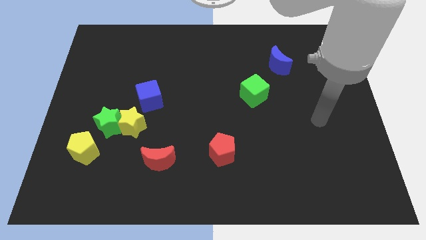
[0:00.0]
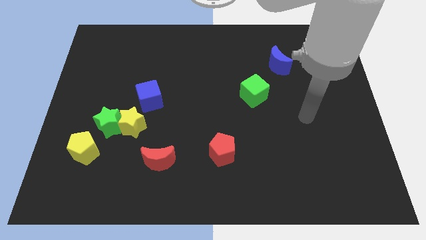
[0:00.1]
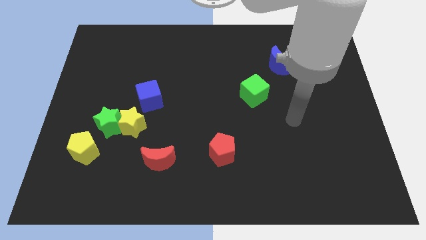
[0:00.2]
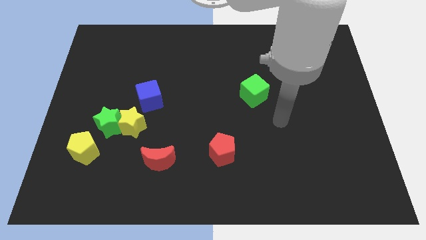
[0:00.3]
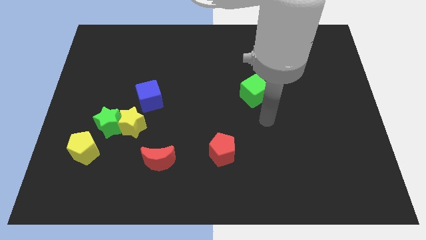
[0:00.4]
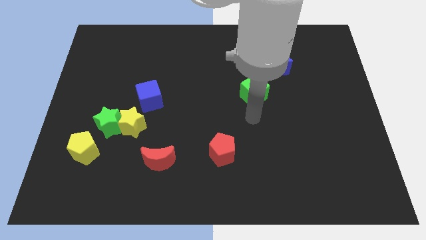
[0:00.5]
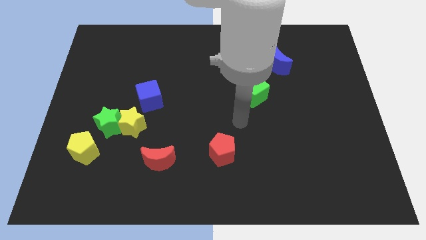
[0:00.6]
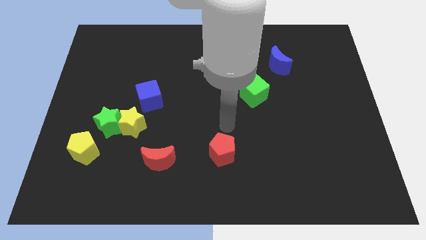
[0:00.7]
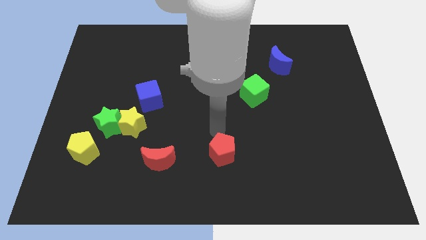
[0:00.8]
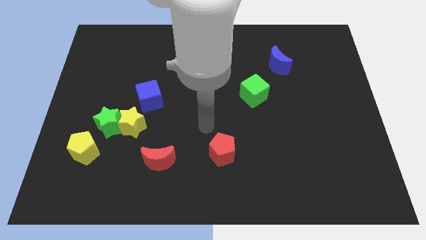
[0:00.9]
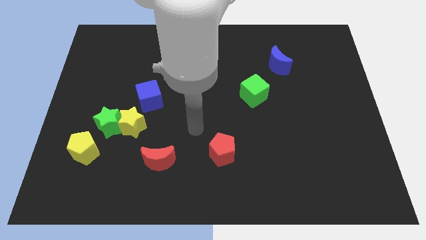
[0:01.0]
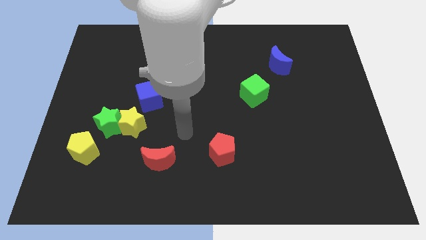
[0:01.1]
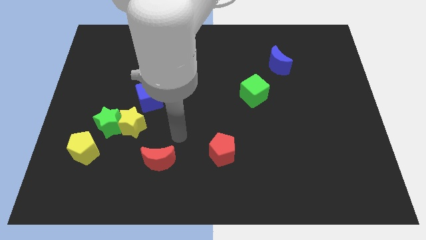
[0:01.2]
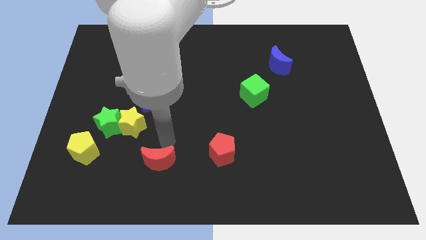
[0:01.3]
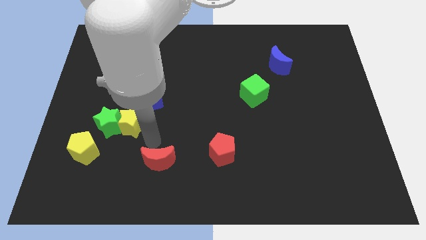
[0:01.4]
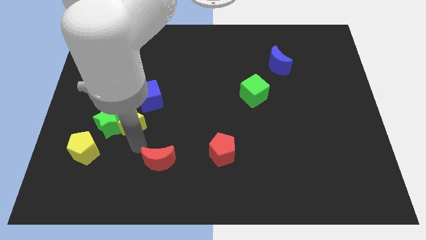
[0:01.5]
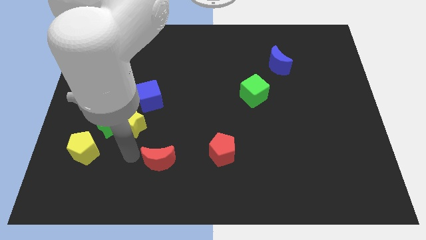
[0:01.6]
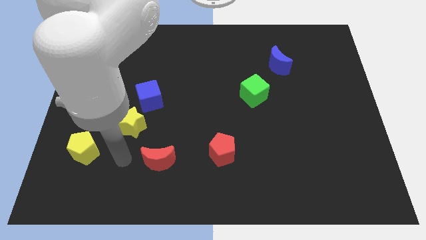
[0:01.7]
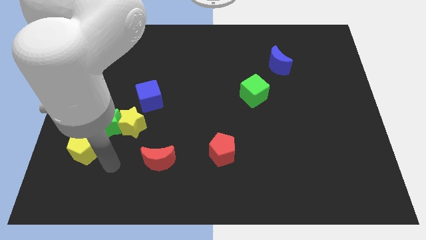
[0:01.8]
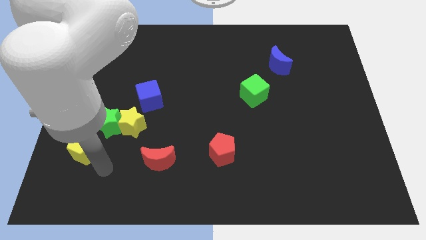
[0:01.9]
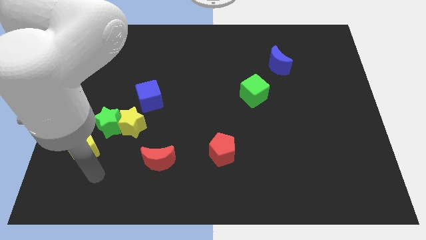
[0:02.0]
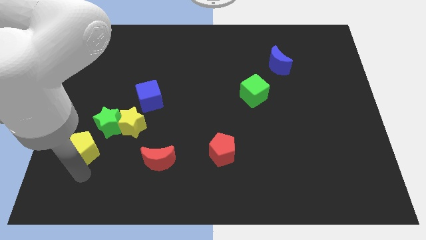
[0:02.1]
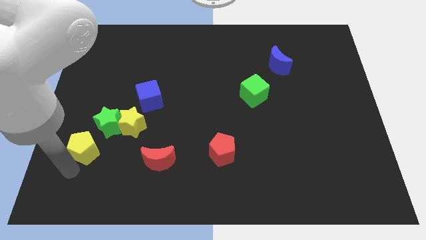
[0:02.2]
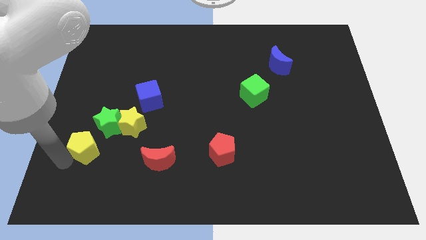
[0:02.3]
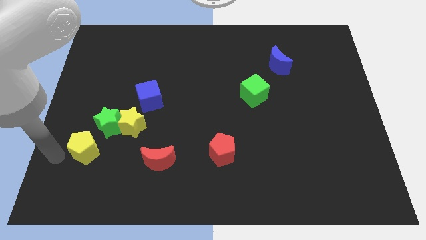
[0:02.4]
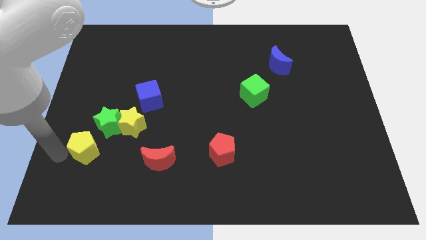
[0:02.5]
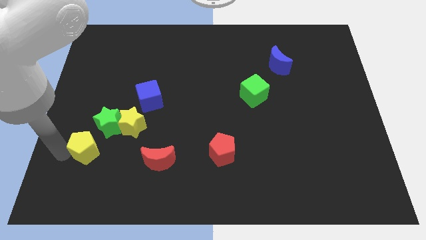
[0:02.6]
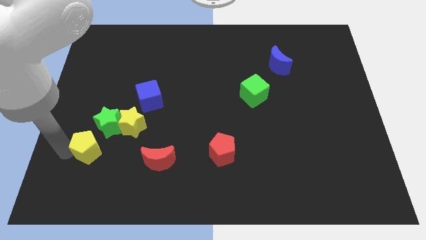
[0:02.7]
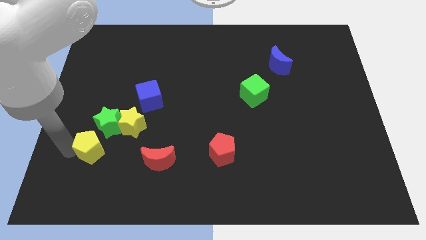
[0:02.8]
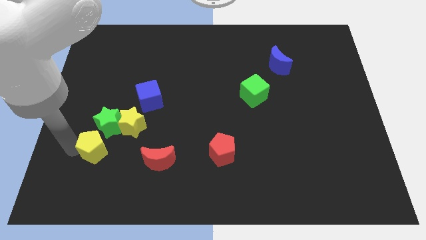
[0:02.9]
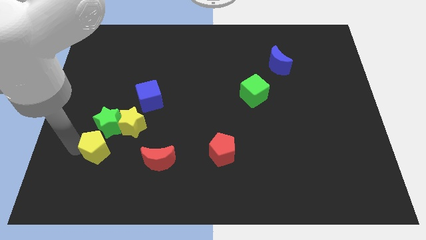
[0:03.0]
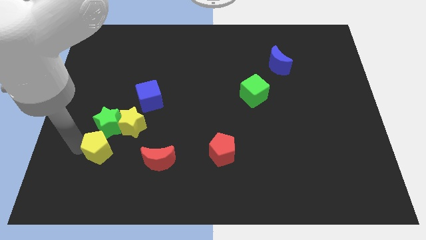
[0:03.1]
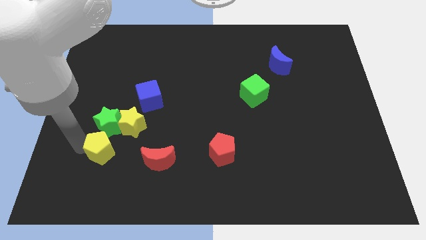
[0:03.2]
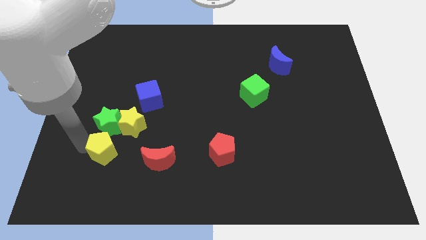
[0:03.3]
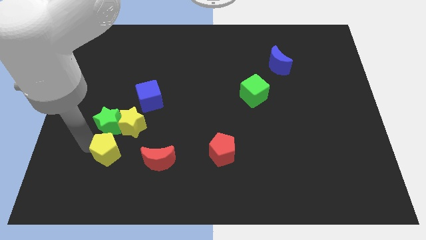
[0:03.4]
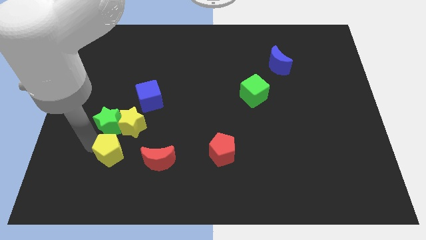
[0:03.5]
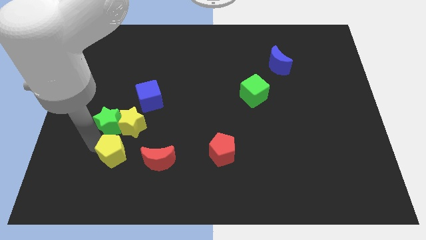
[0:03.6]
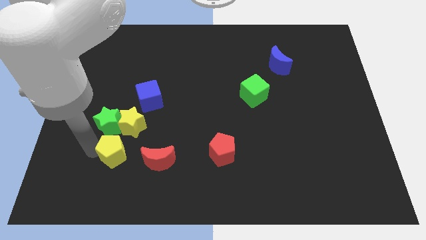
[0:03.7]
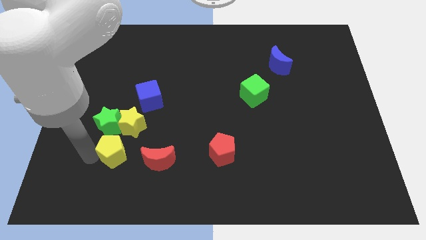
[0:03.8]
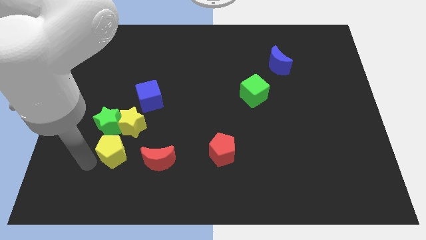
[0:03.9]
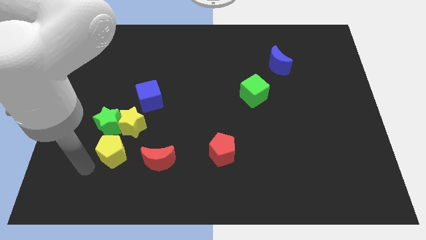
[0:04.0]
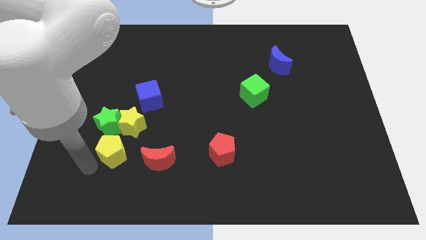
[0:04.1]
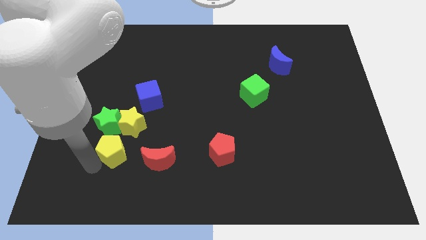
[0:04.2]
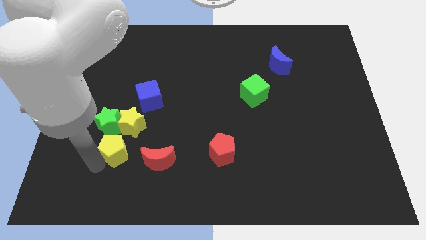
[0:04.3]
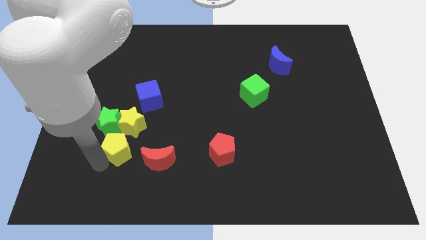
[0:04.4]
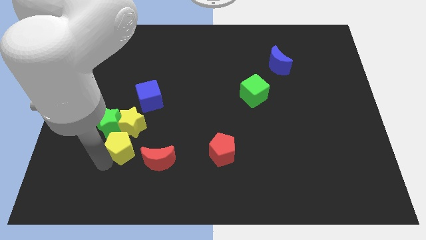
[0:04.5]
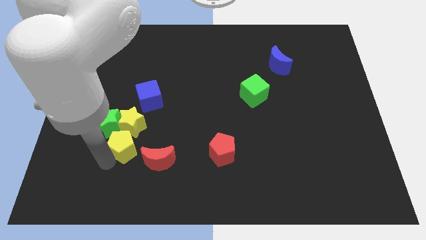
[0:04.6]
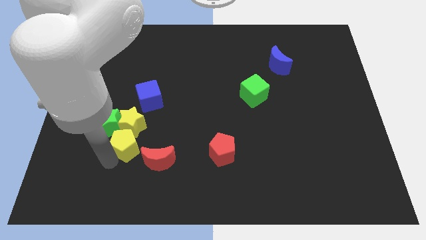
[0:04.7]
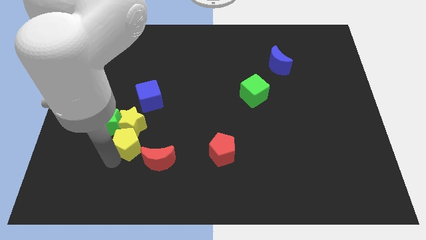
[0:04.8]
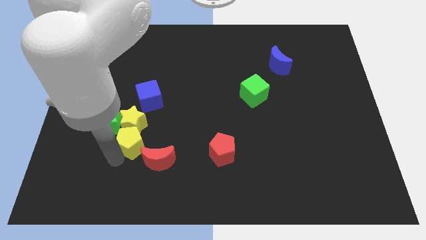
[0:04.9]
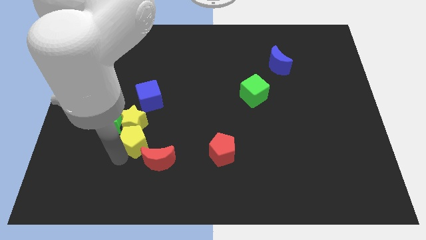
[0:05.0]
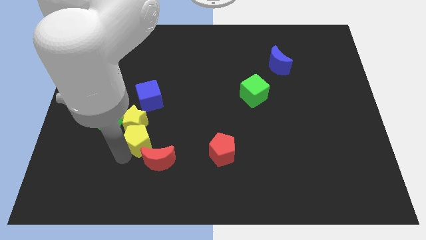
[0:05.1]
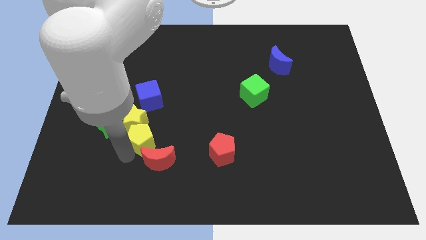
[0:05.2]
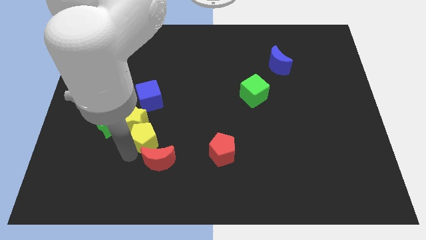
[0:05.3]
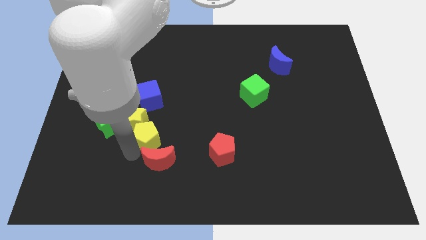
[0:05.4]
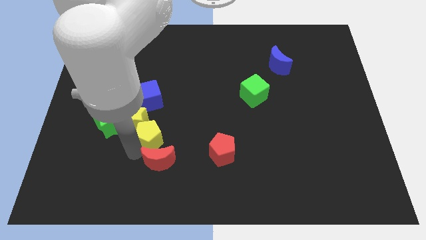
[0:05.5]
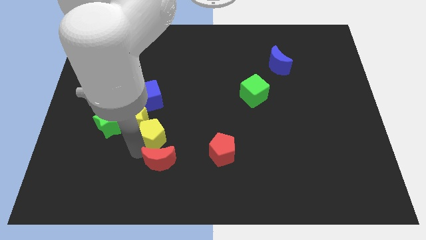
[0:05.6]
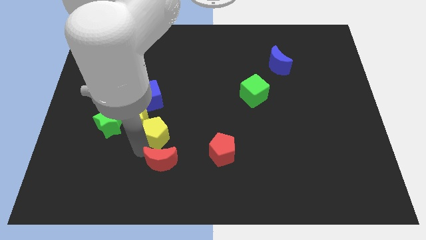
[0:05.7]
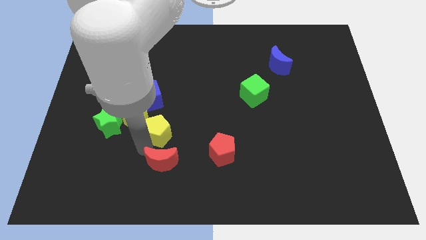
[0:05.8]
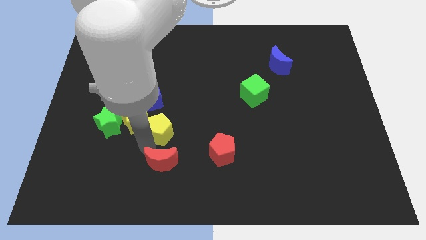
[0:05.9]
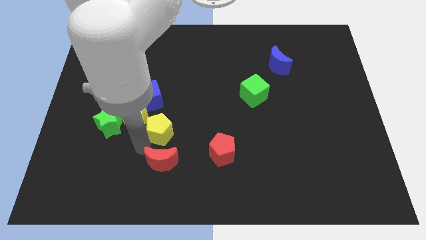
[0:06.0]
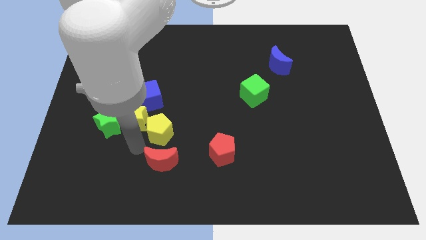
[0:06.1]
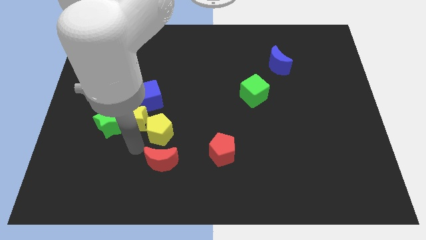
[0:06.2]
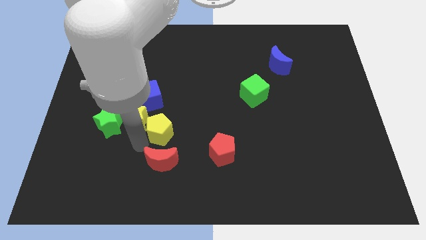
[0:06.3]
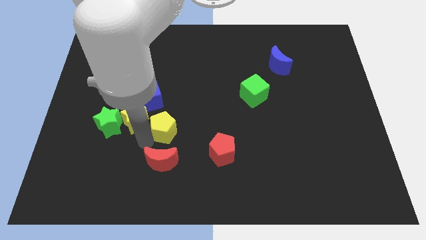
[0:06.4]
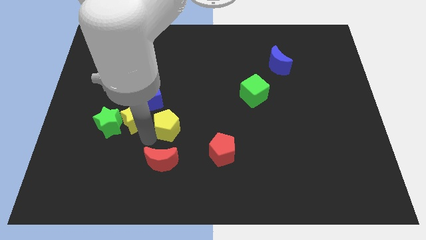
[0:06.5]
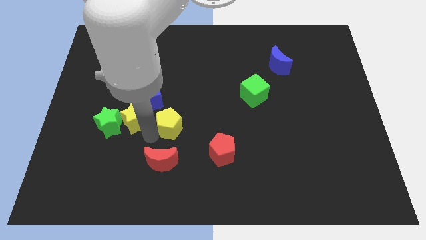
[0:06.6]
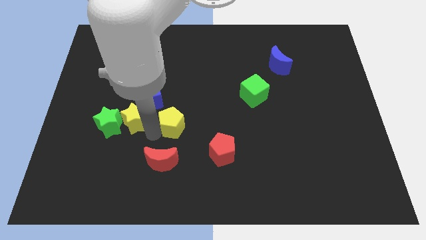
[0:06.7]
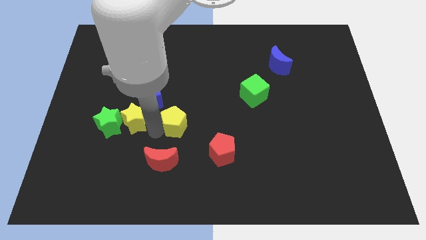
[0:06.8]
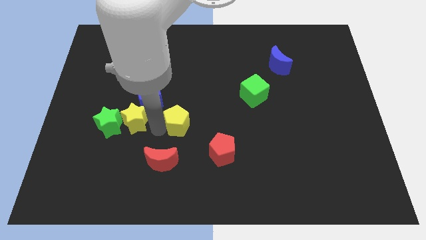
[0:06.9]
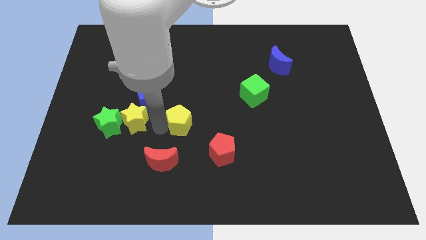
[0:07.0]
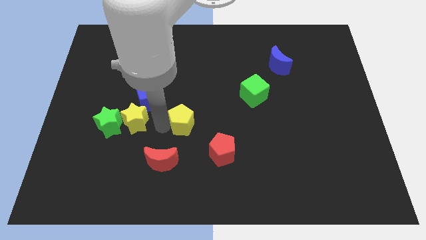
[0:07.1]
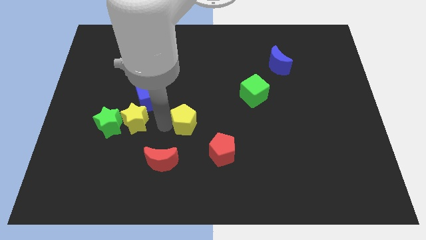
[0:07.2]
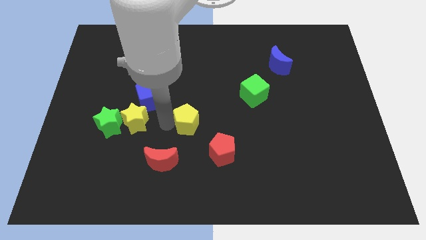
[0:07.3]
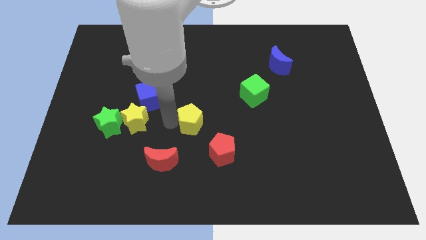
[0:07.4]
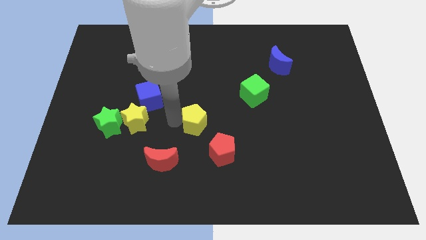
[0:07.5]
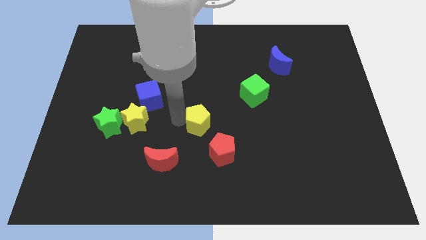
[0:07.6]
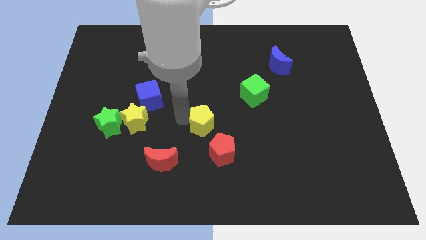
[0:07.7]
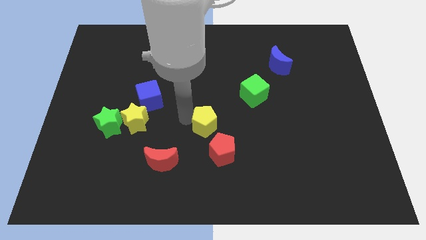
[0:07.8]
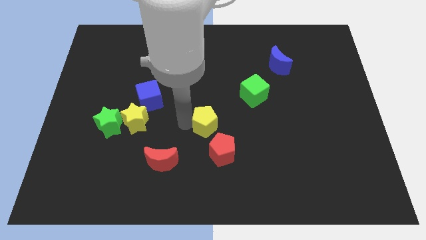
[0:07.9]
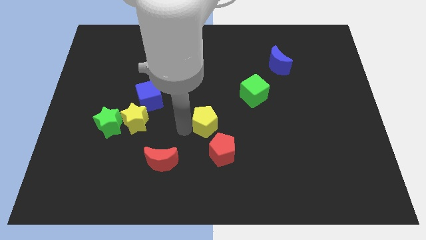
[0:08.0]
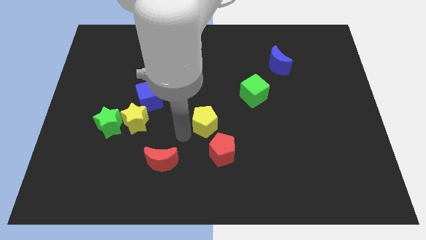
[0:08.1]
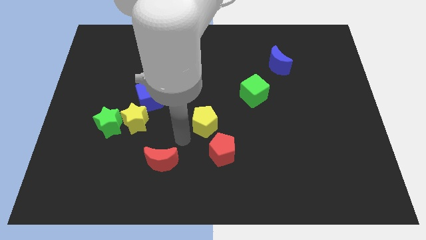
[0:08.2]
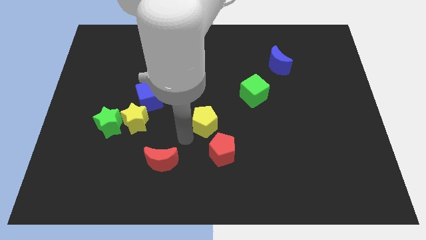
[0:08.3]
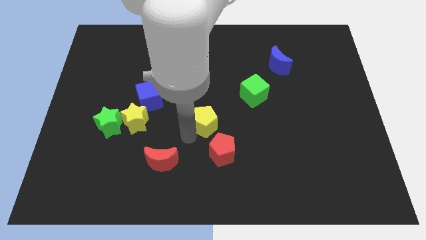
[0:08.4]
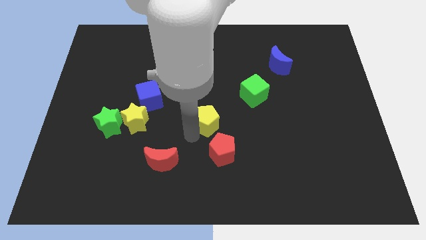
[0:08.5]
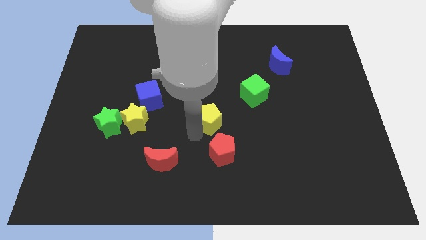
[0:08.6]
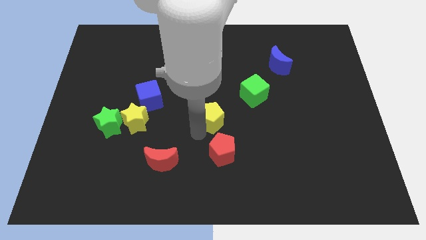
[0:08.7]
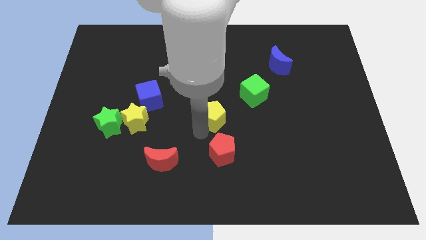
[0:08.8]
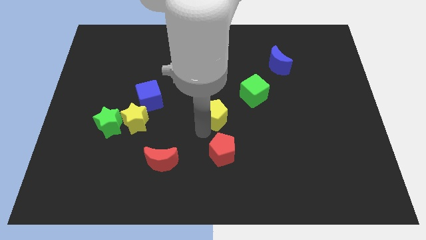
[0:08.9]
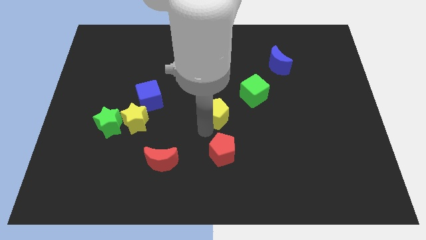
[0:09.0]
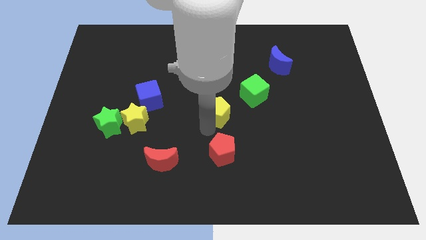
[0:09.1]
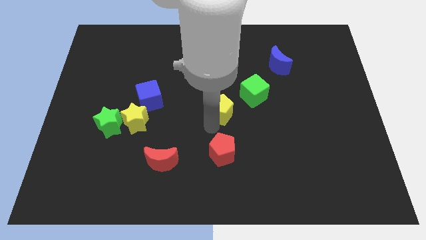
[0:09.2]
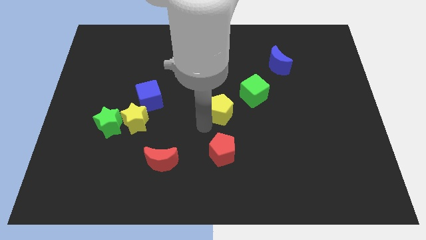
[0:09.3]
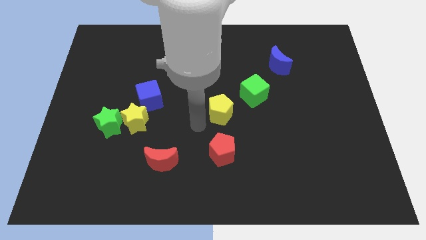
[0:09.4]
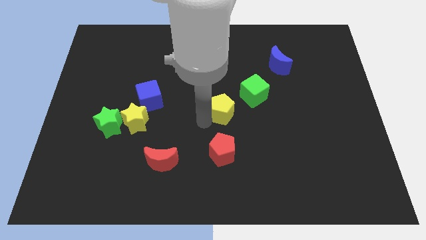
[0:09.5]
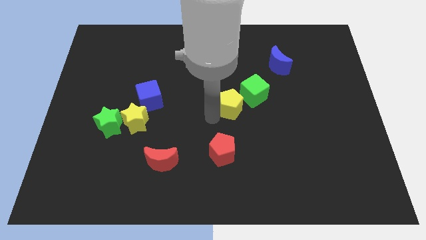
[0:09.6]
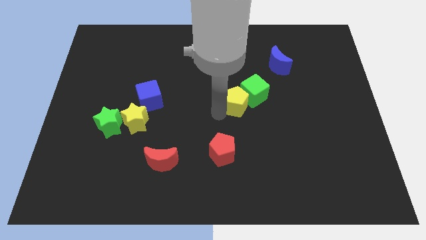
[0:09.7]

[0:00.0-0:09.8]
move the yellow pentagon towards the green cube
